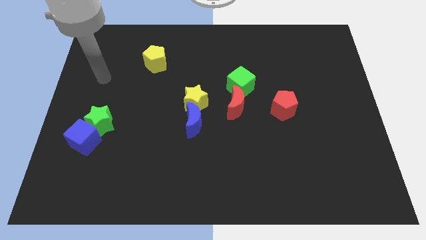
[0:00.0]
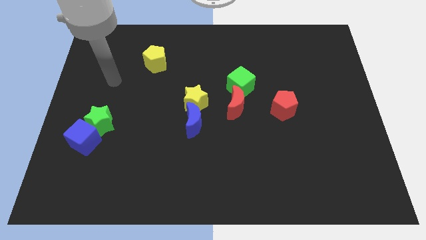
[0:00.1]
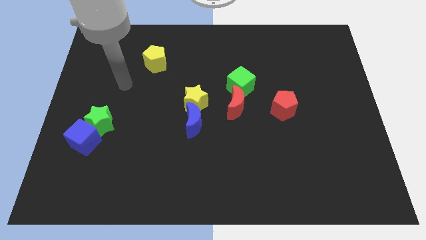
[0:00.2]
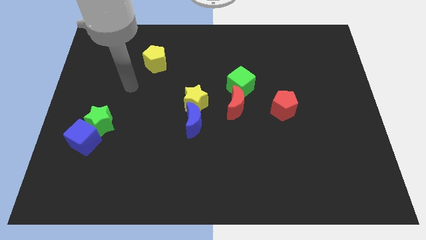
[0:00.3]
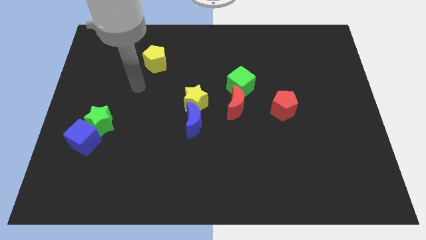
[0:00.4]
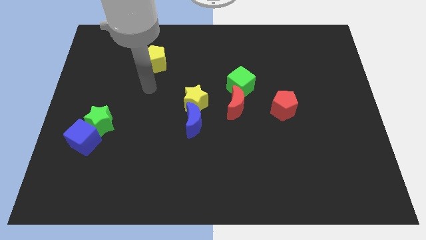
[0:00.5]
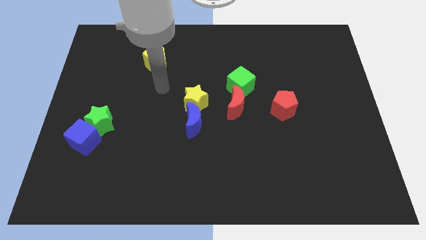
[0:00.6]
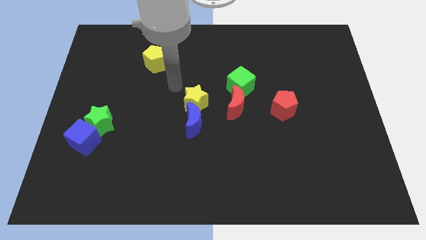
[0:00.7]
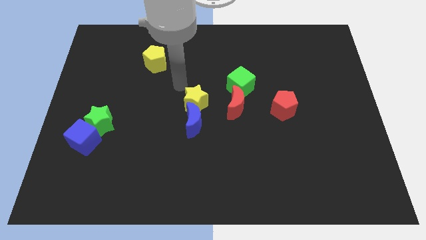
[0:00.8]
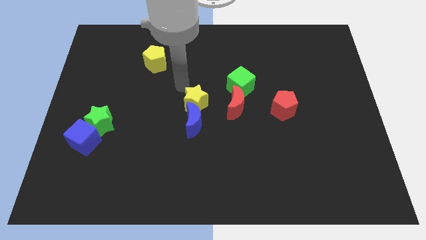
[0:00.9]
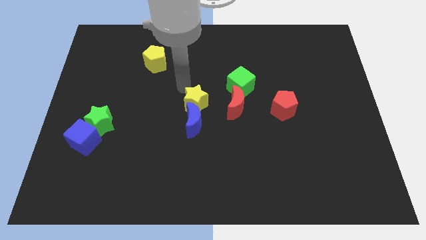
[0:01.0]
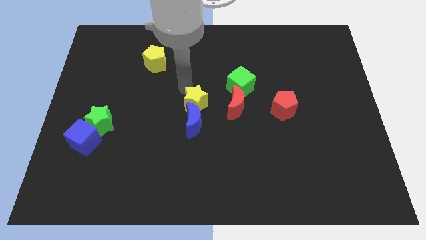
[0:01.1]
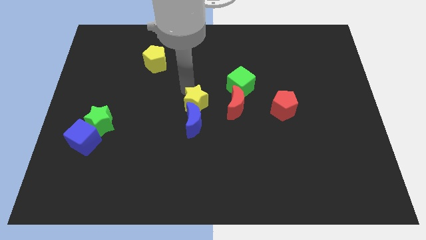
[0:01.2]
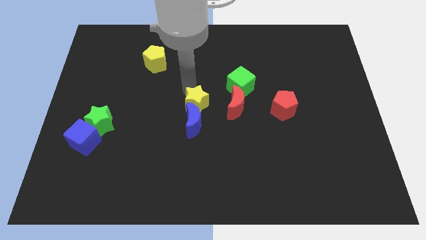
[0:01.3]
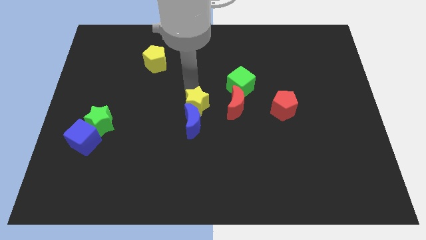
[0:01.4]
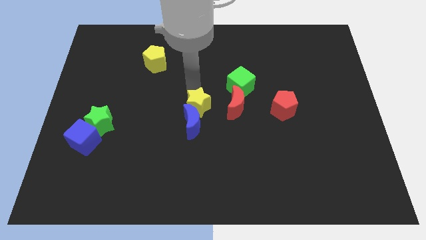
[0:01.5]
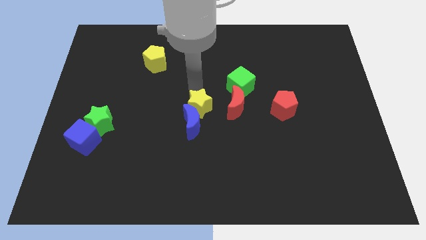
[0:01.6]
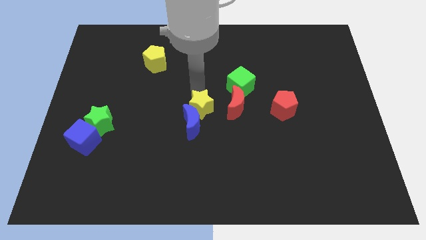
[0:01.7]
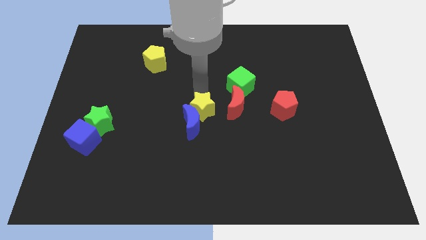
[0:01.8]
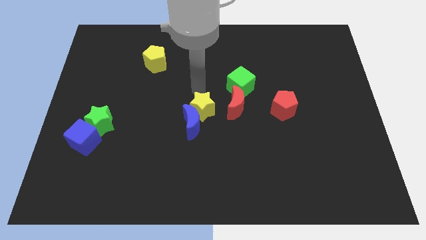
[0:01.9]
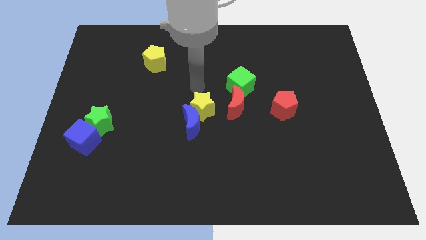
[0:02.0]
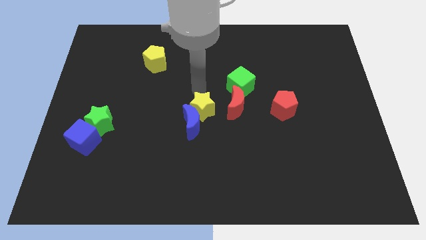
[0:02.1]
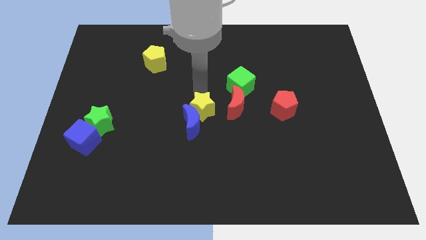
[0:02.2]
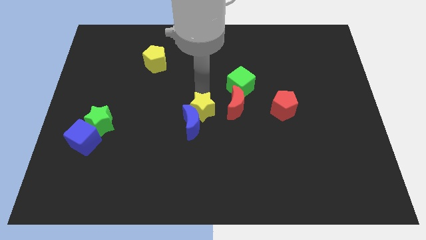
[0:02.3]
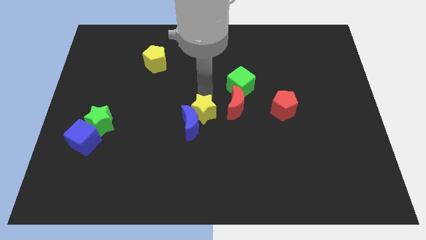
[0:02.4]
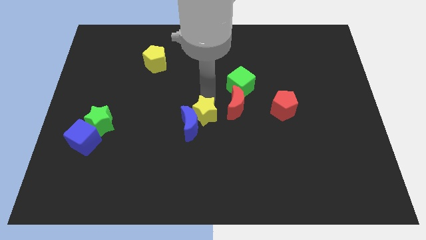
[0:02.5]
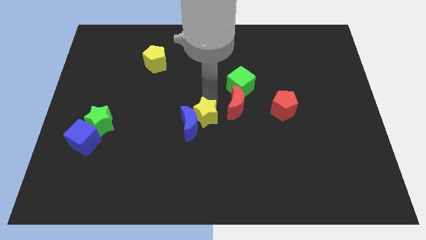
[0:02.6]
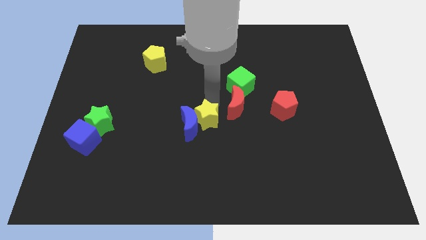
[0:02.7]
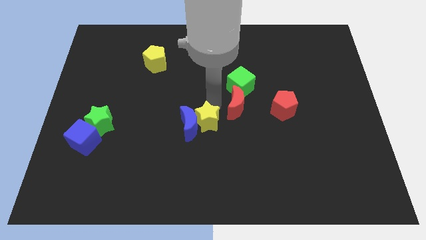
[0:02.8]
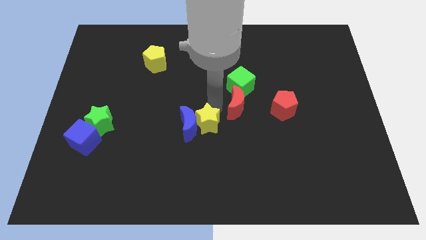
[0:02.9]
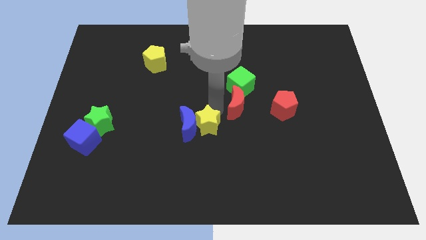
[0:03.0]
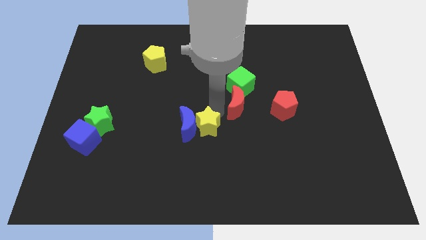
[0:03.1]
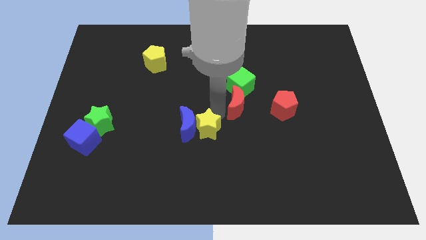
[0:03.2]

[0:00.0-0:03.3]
slightly move the yellow star down

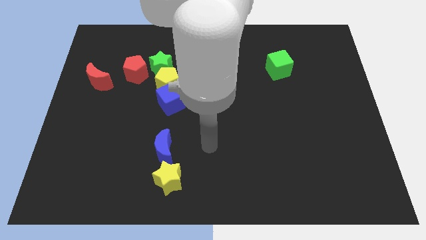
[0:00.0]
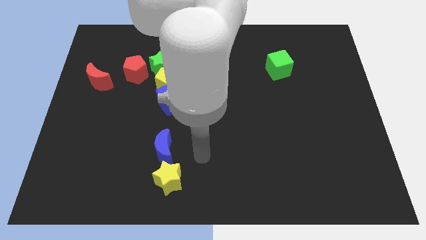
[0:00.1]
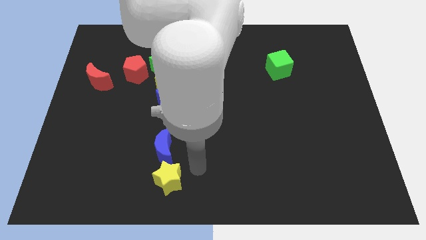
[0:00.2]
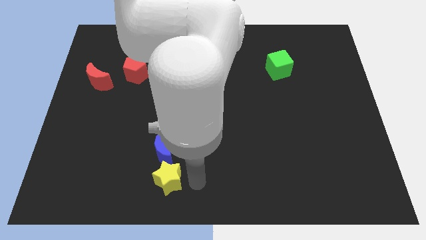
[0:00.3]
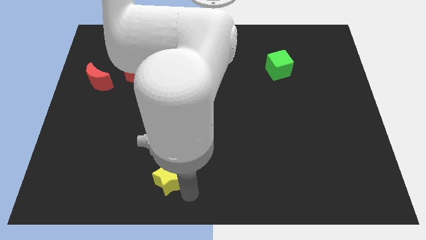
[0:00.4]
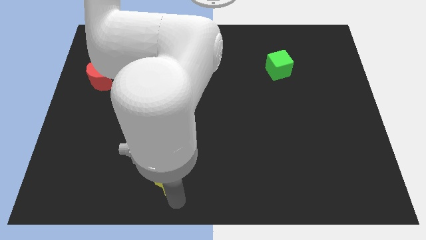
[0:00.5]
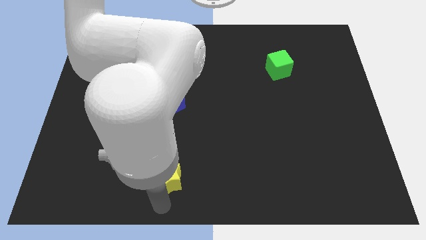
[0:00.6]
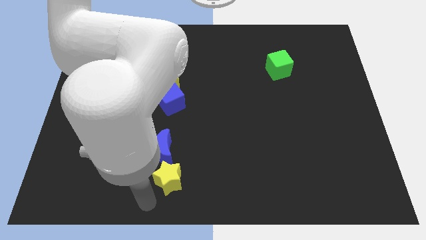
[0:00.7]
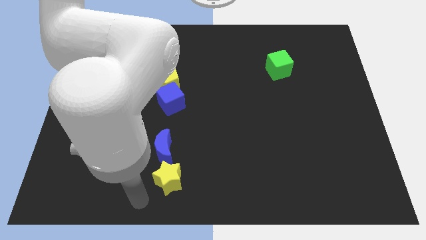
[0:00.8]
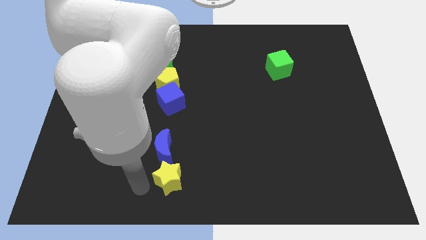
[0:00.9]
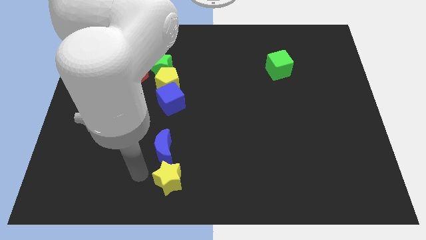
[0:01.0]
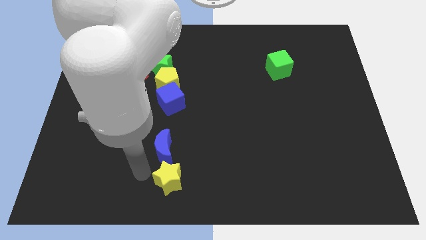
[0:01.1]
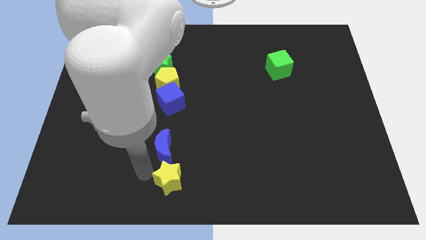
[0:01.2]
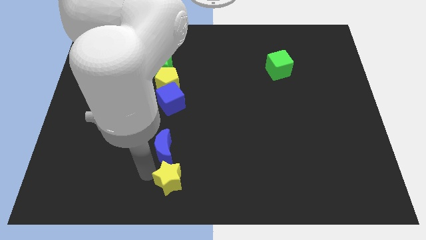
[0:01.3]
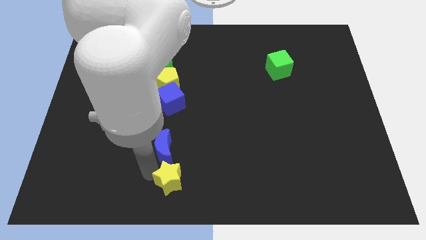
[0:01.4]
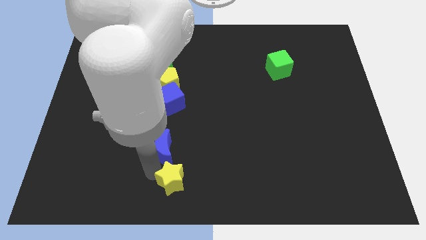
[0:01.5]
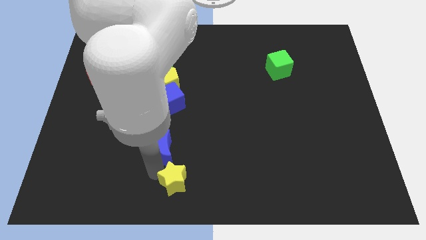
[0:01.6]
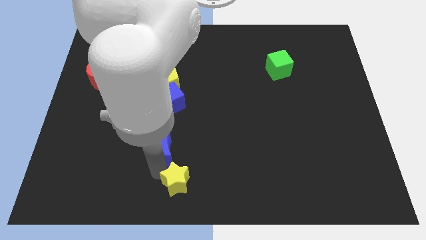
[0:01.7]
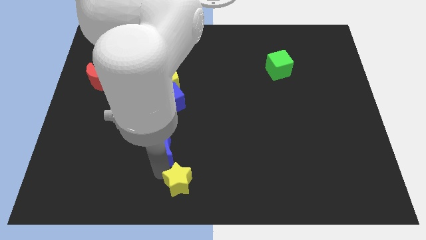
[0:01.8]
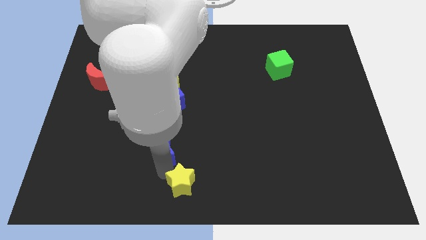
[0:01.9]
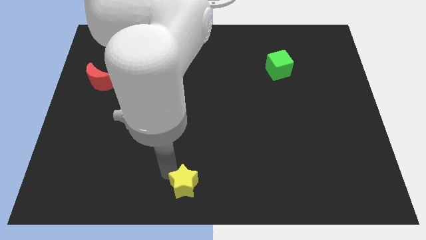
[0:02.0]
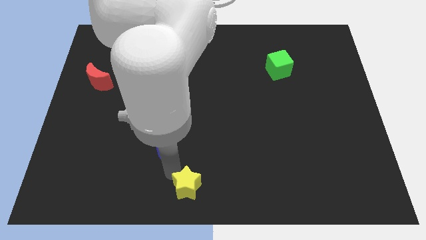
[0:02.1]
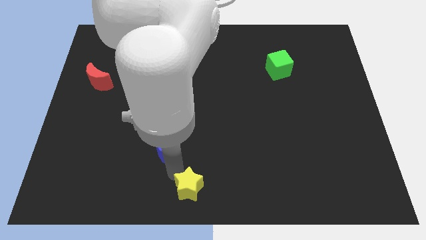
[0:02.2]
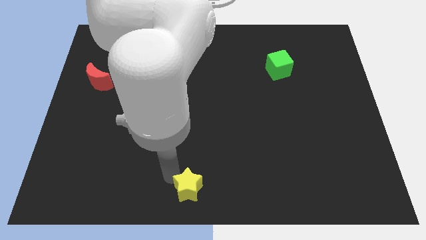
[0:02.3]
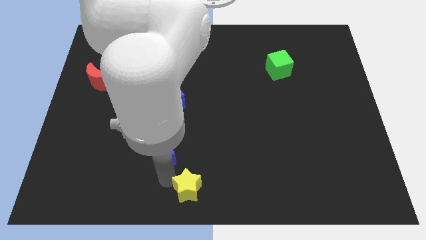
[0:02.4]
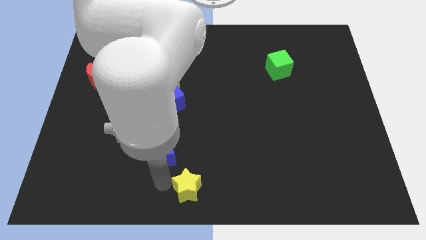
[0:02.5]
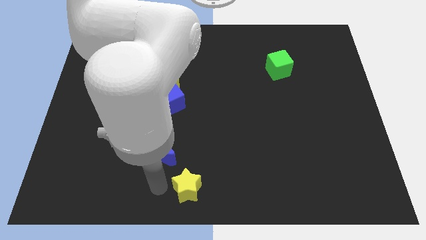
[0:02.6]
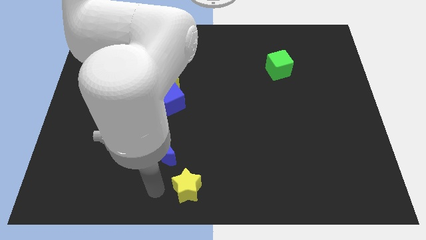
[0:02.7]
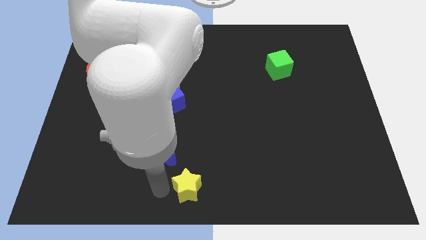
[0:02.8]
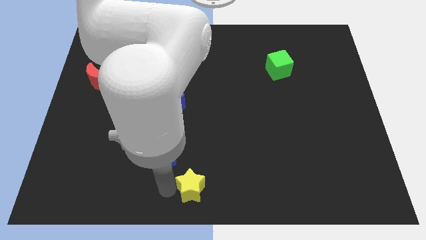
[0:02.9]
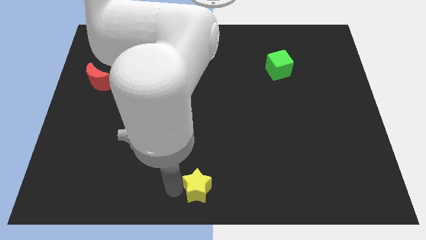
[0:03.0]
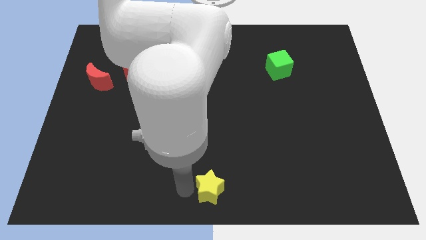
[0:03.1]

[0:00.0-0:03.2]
slightly move the yellow star right

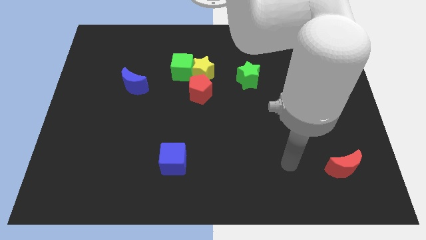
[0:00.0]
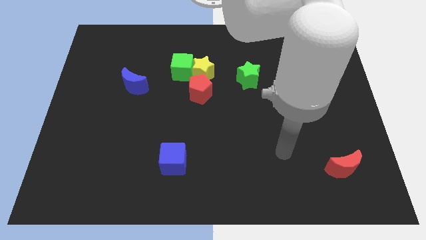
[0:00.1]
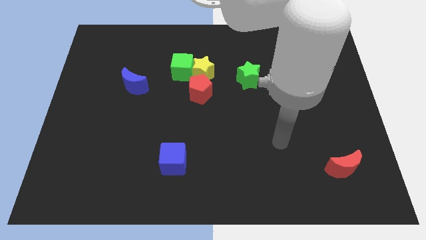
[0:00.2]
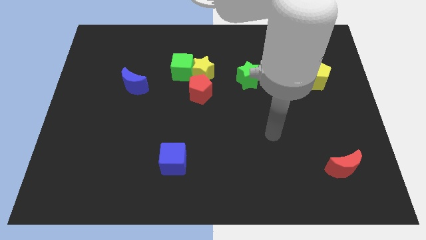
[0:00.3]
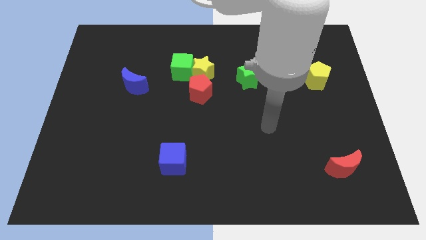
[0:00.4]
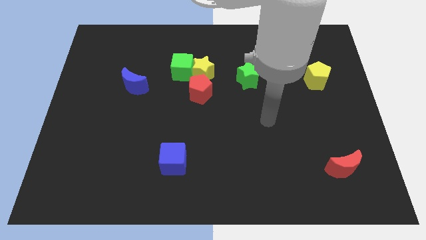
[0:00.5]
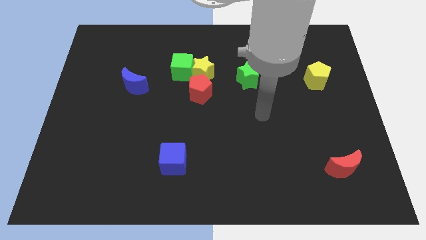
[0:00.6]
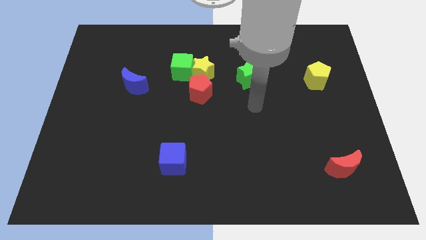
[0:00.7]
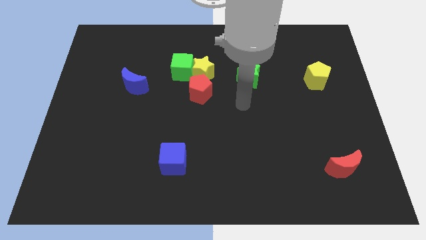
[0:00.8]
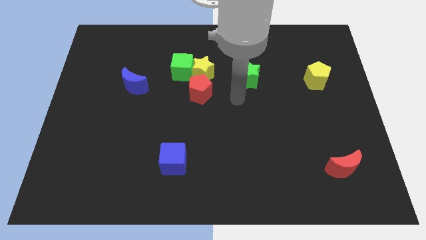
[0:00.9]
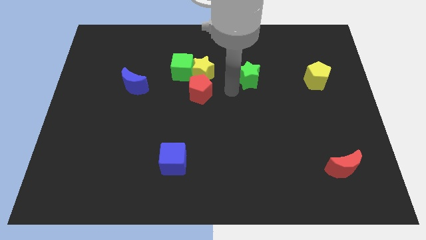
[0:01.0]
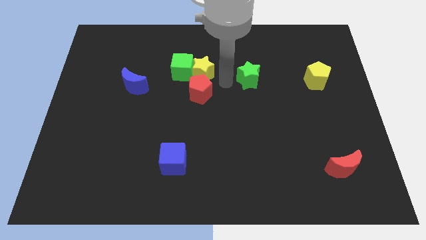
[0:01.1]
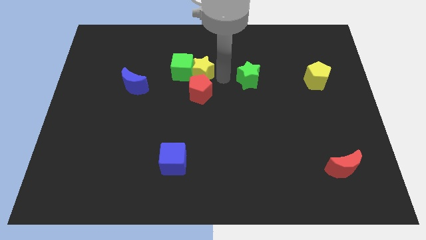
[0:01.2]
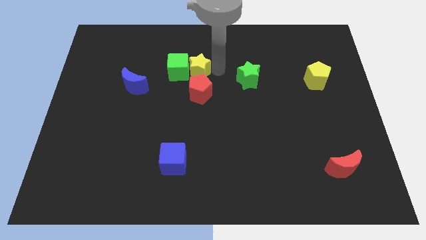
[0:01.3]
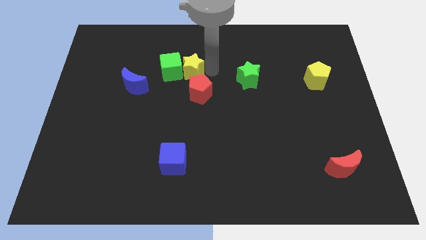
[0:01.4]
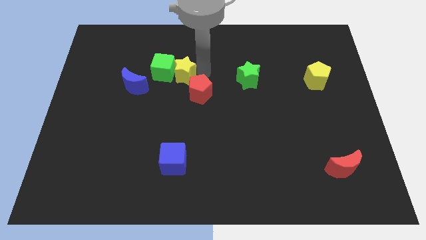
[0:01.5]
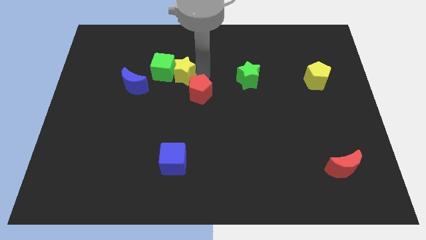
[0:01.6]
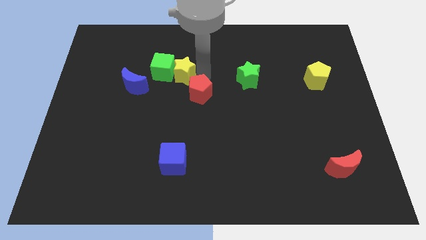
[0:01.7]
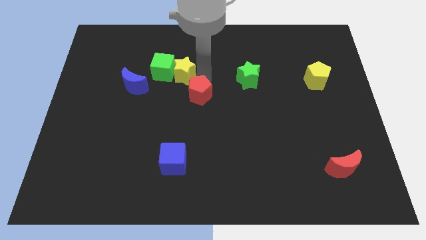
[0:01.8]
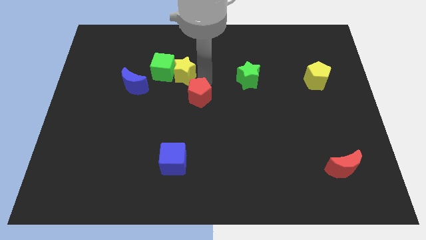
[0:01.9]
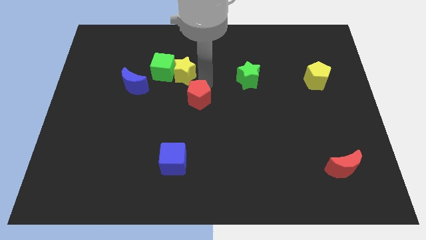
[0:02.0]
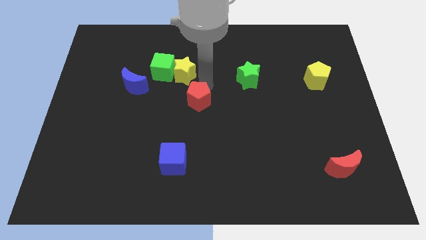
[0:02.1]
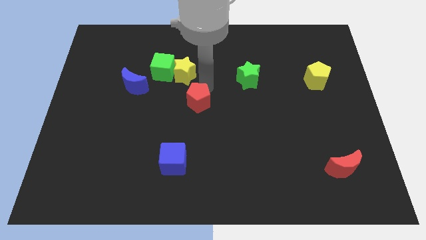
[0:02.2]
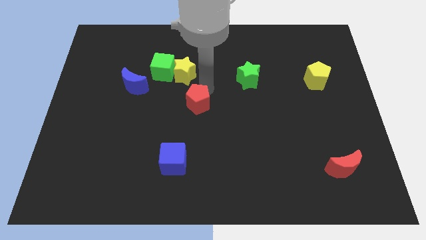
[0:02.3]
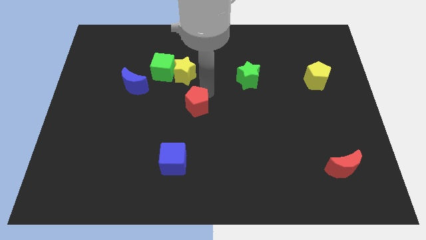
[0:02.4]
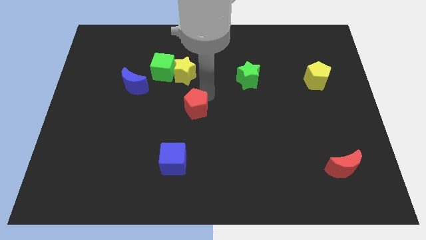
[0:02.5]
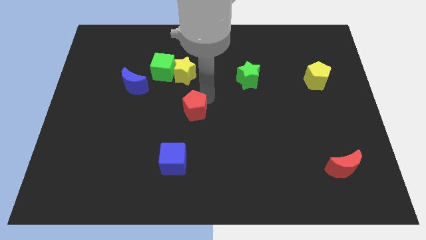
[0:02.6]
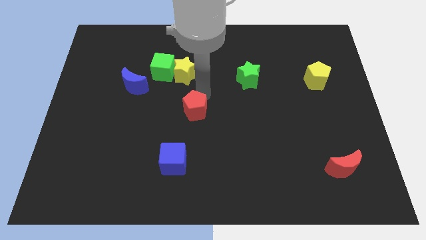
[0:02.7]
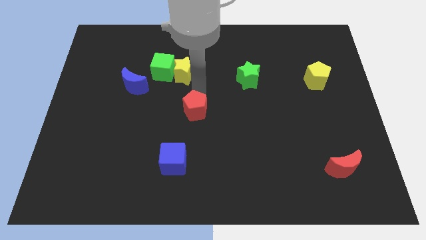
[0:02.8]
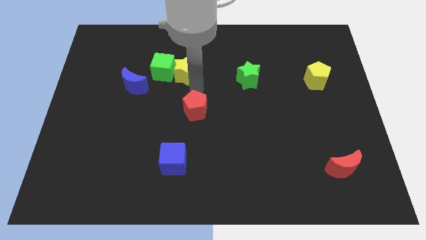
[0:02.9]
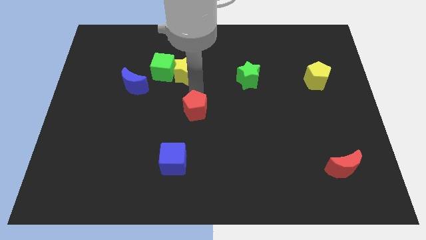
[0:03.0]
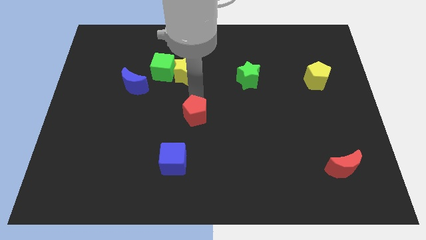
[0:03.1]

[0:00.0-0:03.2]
slightly push the red pentagon downwards
